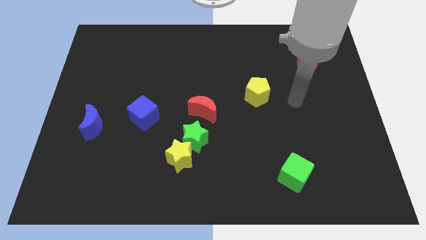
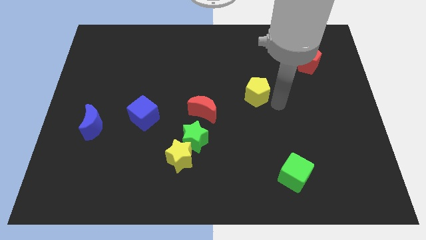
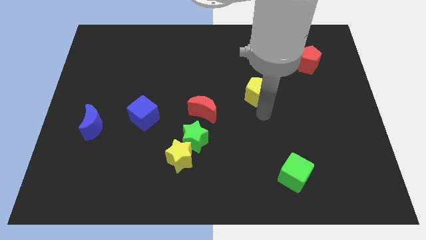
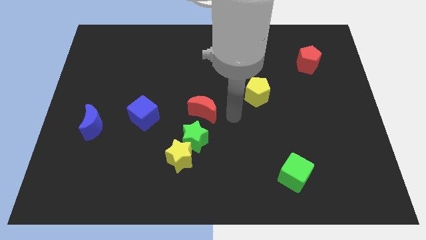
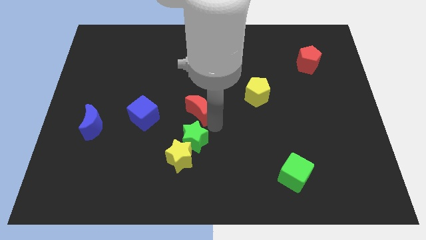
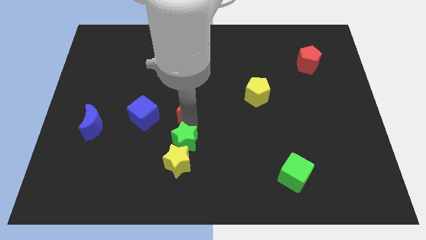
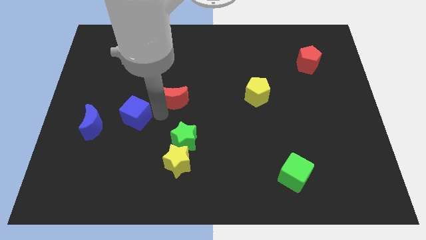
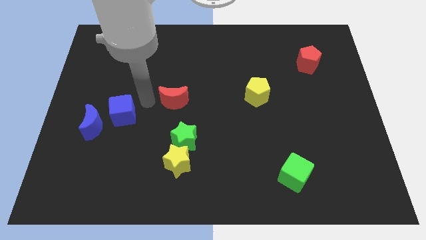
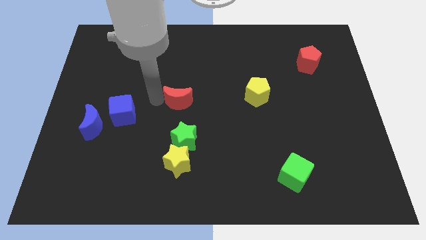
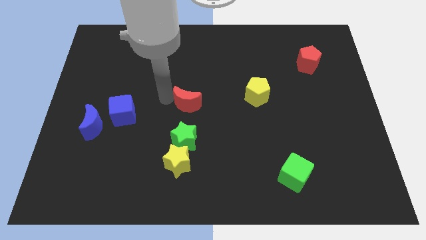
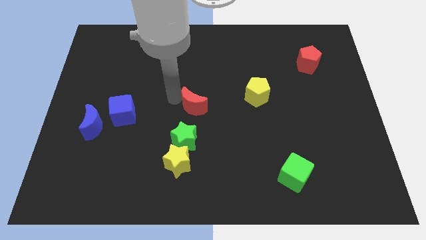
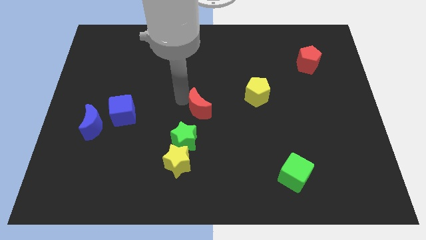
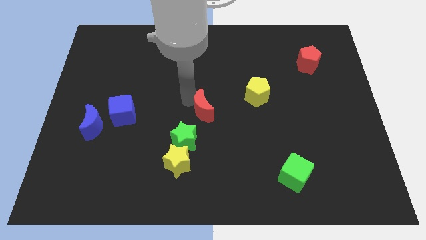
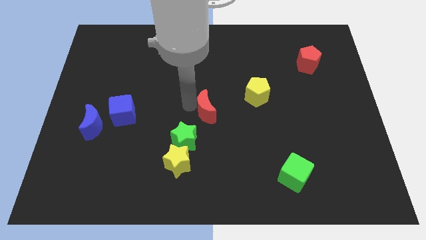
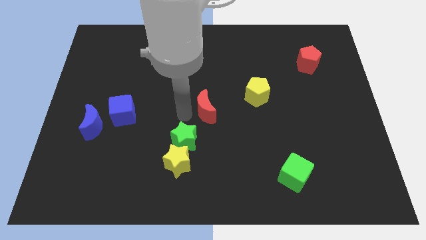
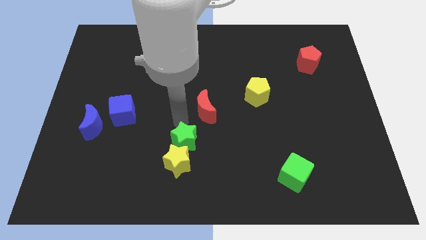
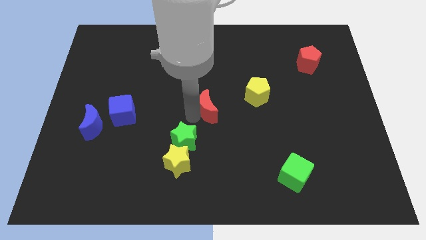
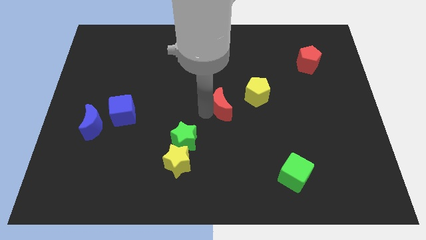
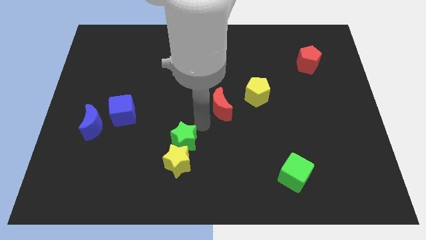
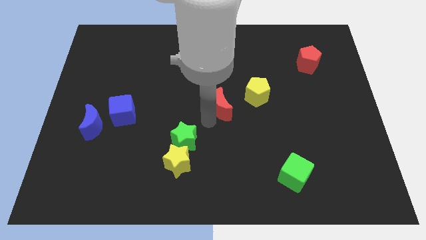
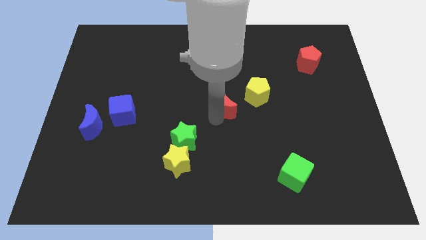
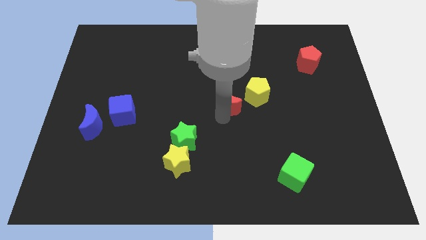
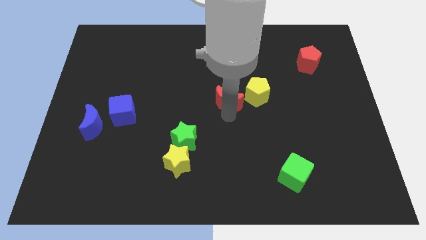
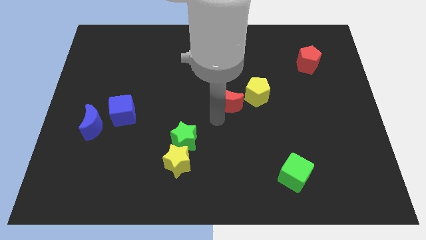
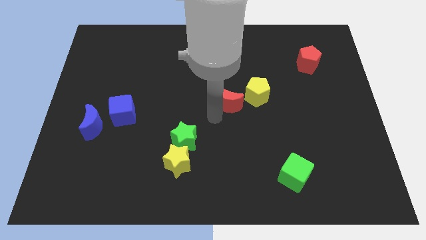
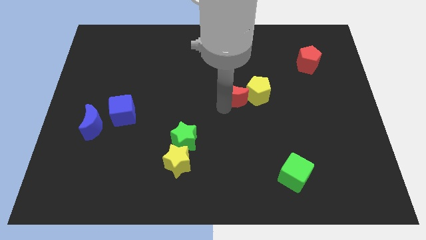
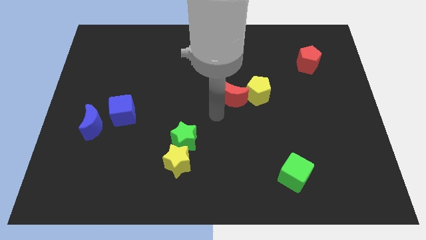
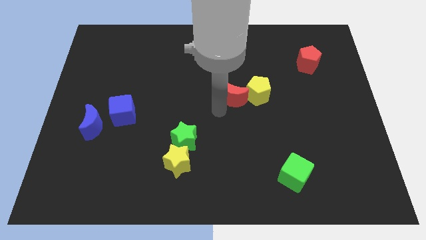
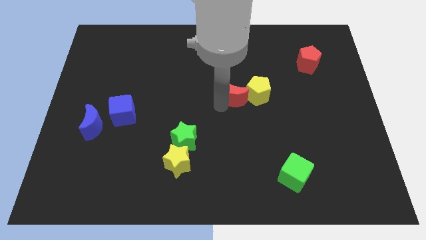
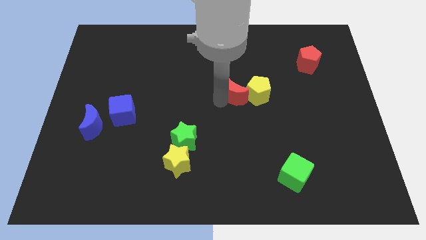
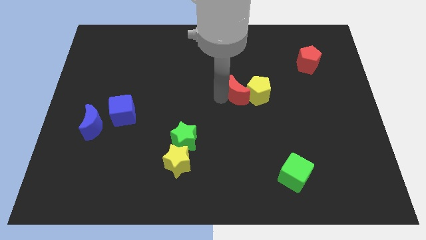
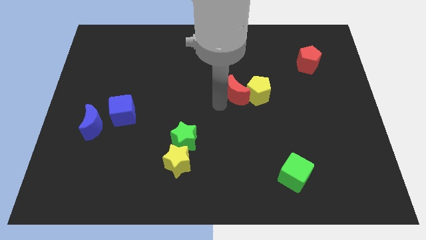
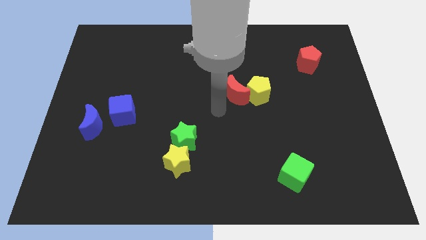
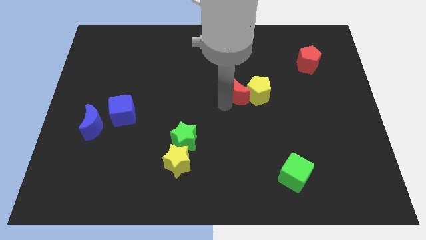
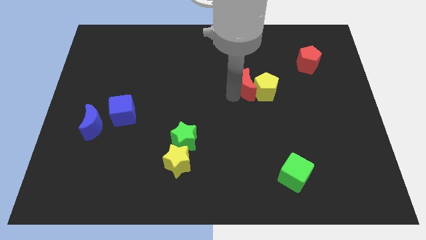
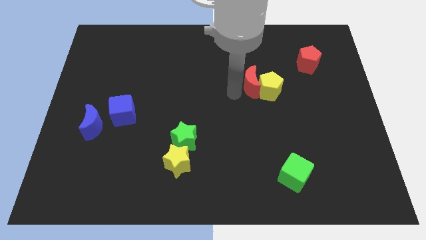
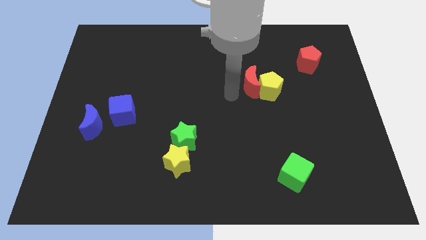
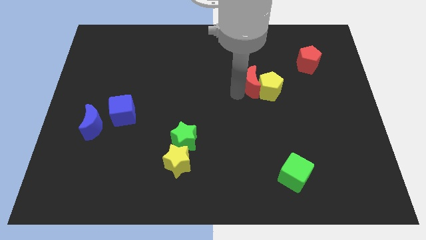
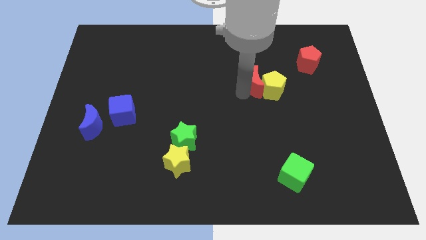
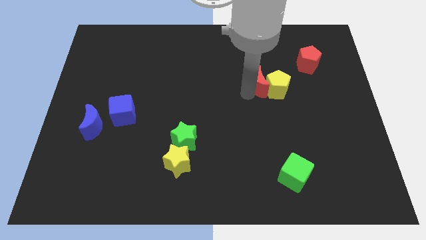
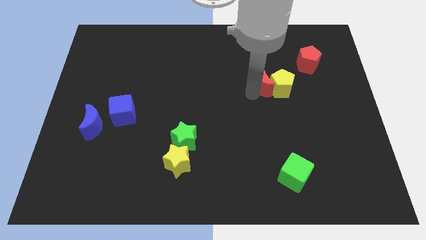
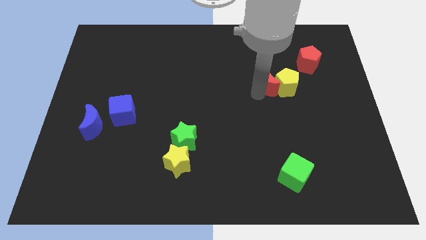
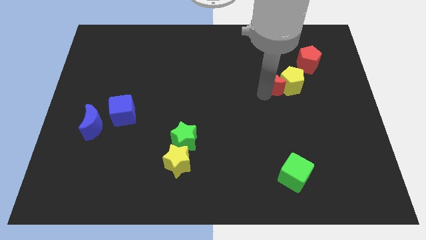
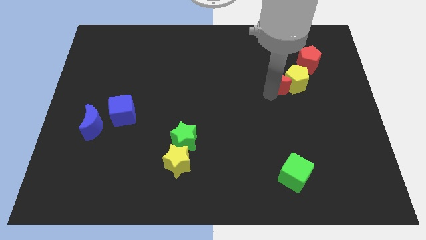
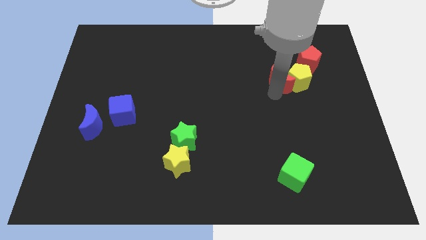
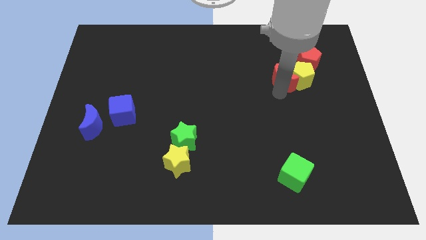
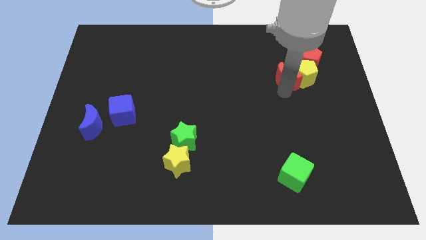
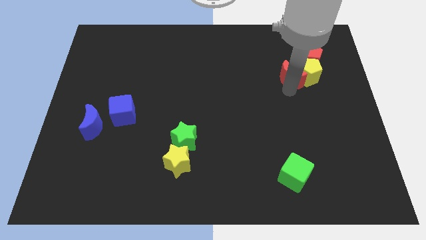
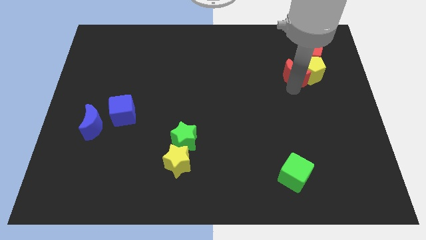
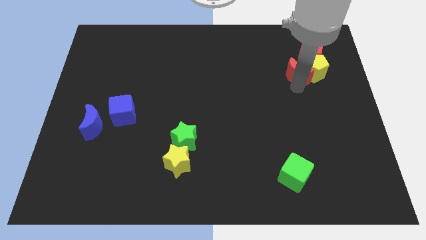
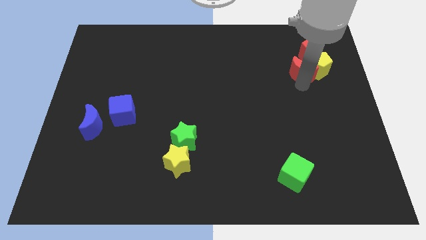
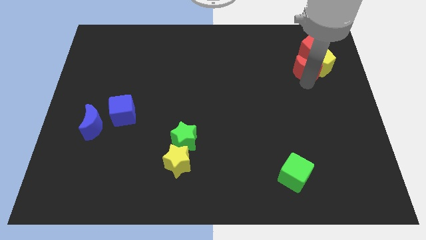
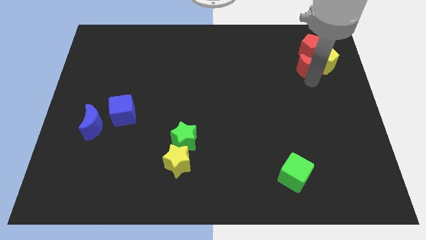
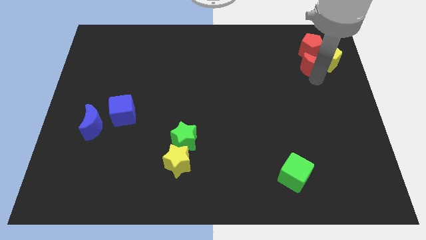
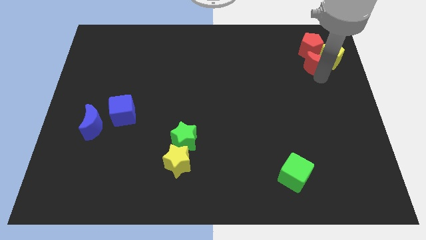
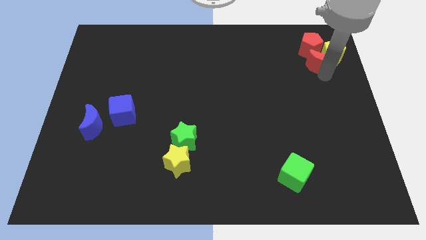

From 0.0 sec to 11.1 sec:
move the red moon close to the red pentagon

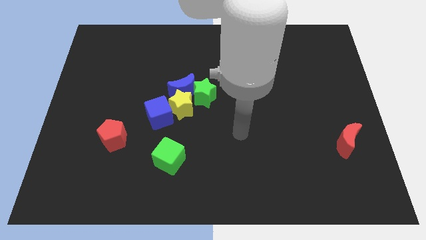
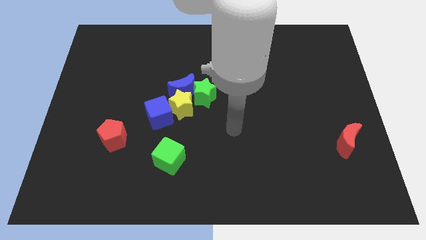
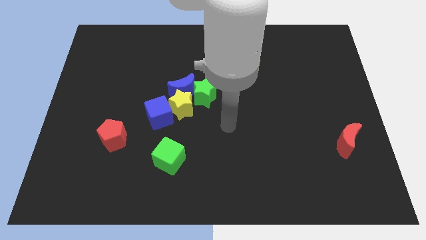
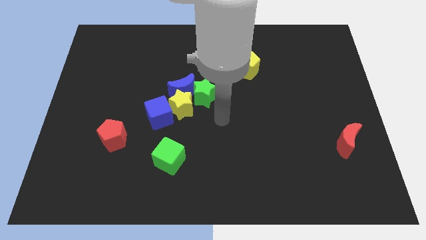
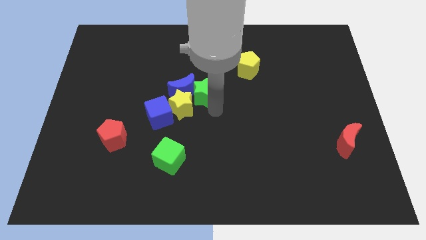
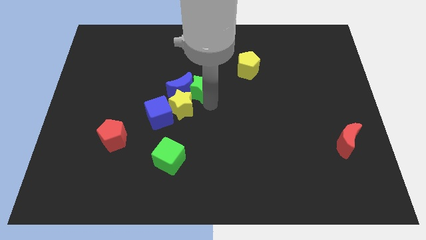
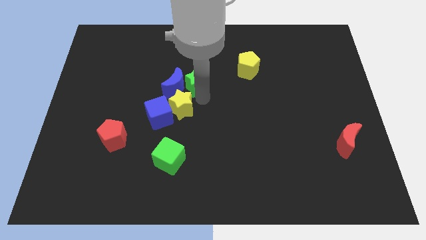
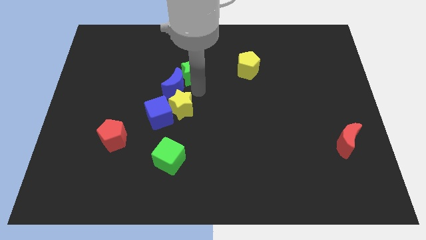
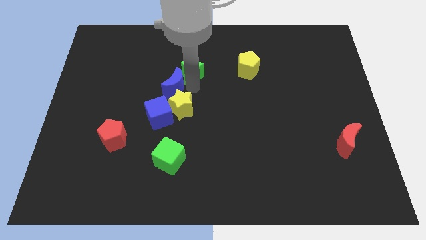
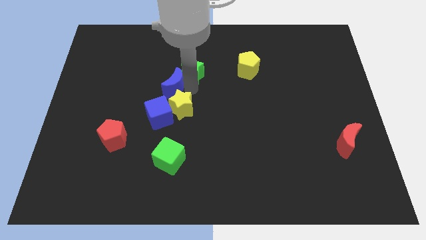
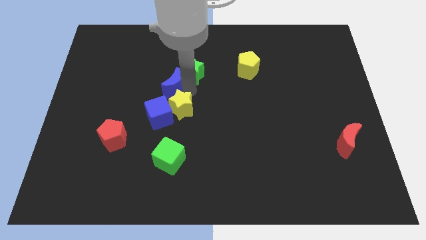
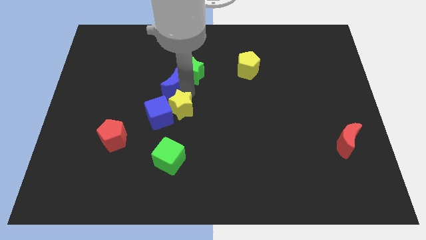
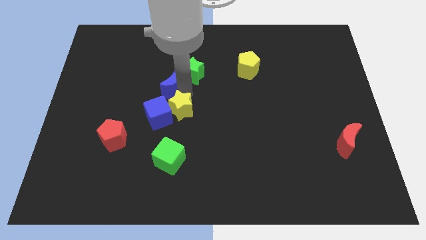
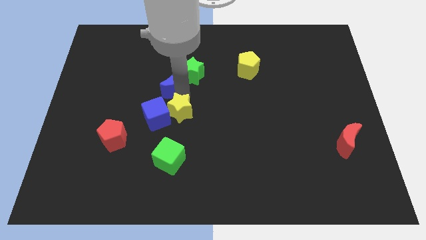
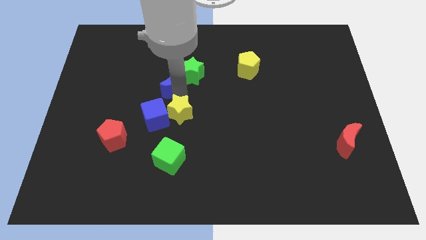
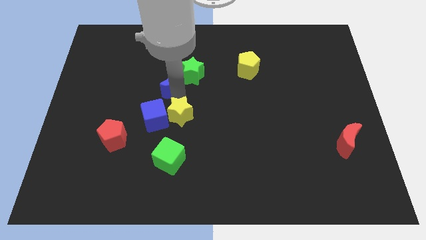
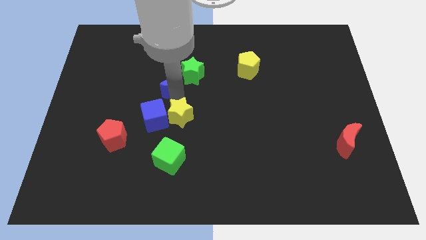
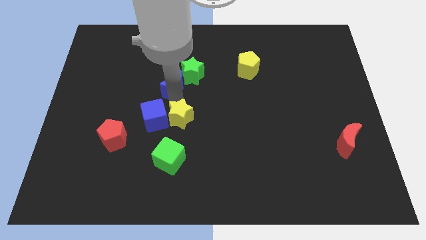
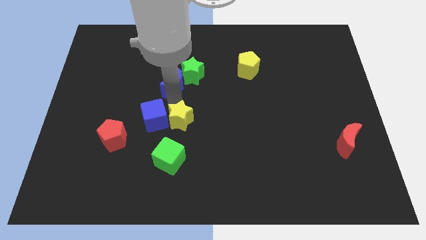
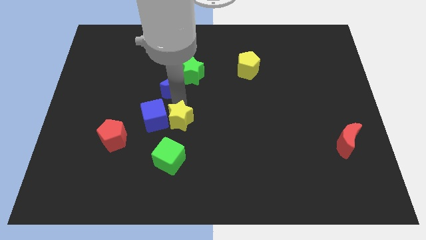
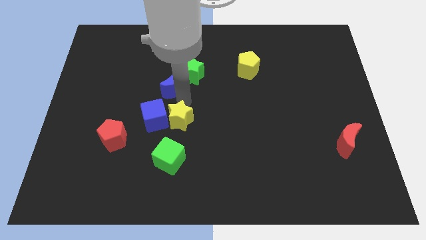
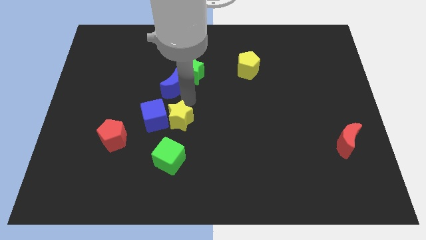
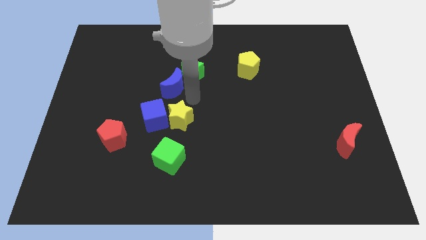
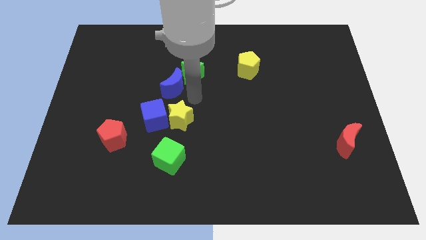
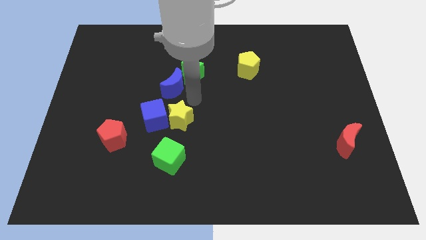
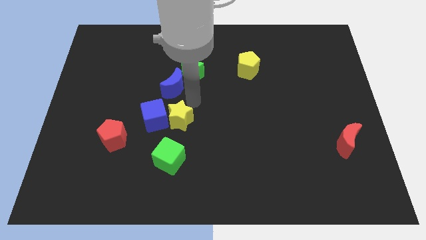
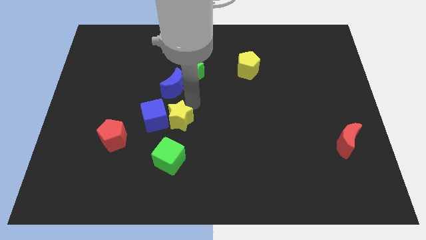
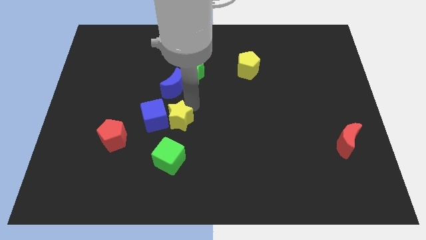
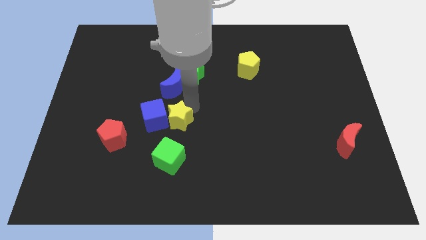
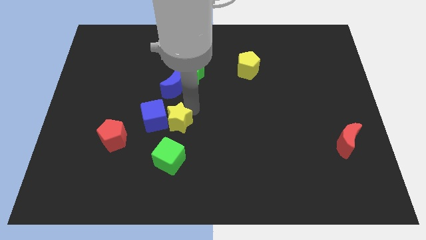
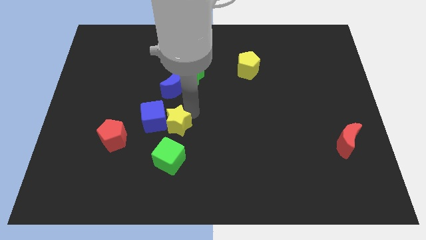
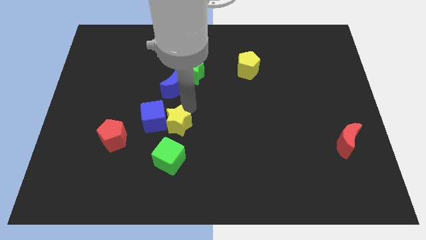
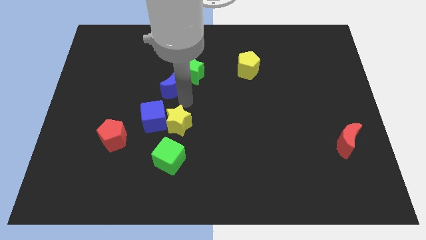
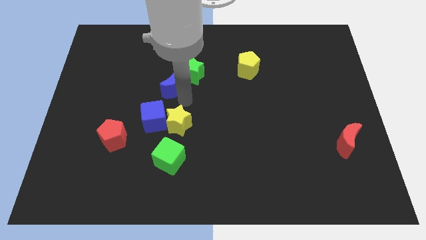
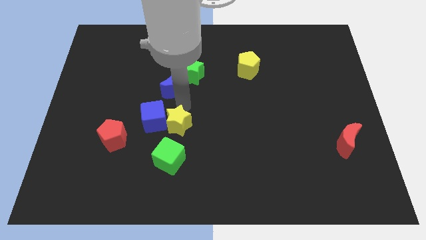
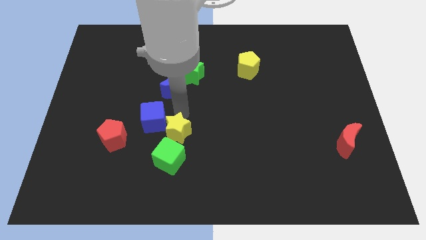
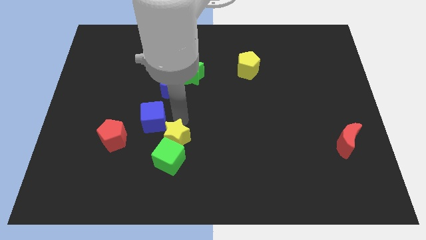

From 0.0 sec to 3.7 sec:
move the yellow star to the green cube
